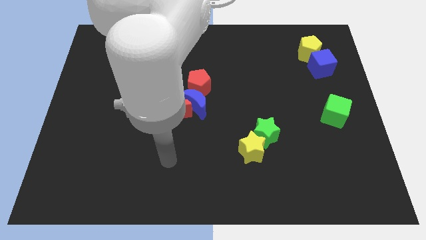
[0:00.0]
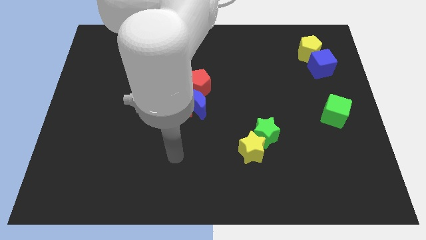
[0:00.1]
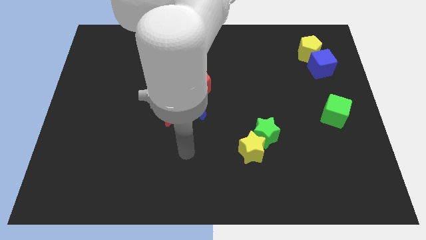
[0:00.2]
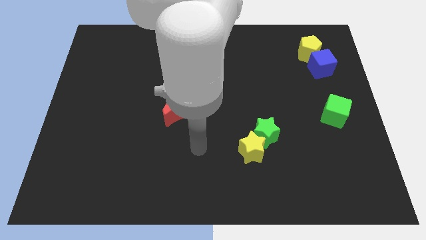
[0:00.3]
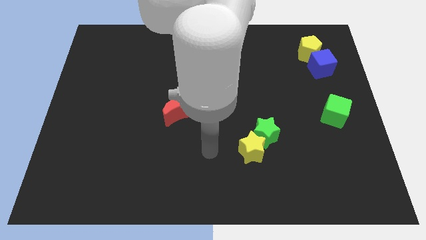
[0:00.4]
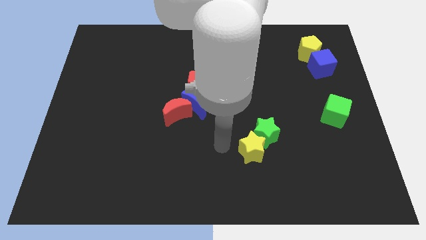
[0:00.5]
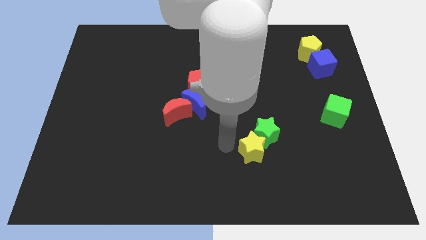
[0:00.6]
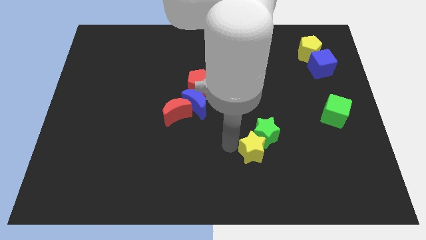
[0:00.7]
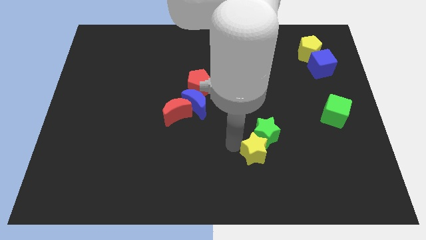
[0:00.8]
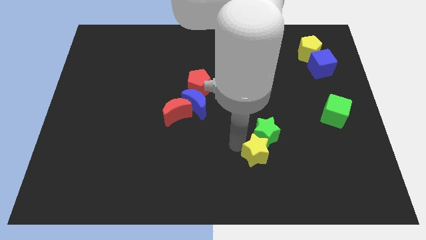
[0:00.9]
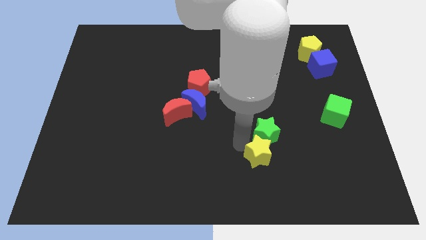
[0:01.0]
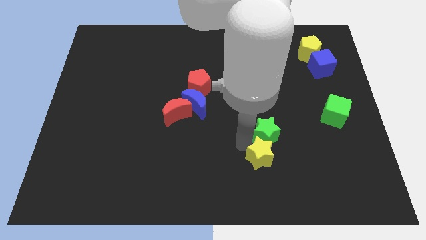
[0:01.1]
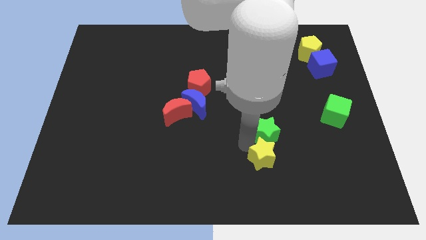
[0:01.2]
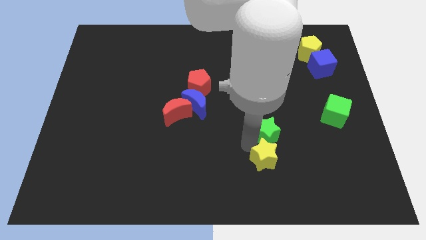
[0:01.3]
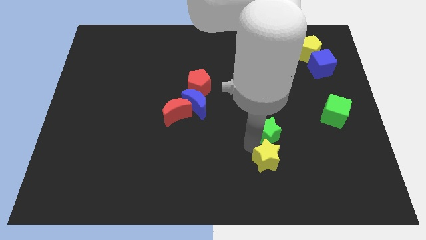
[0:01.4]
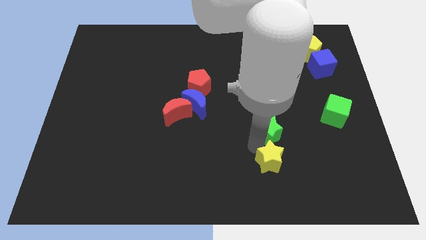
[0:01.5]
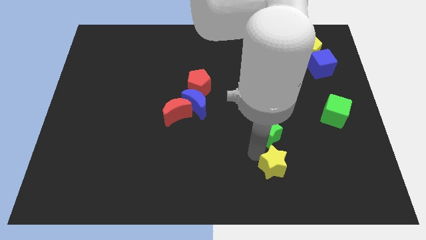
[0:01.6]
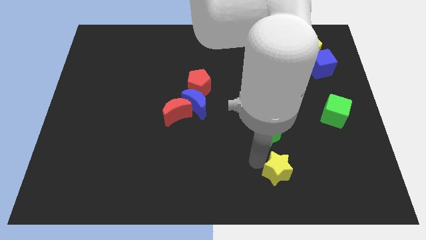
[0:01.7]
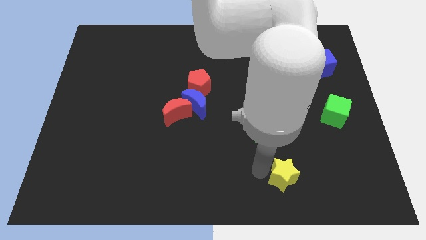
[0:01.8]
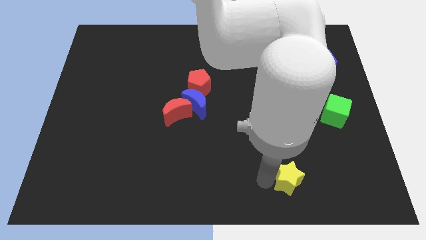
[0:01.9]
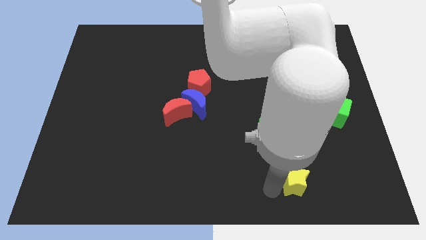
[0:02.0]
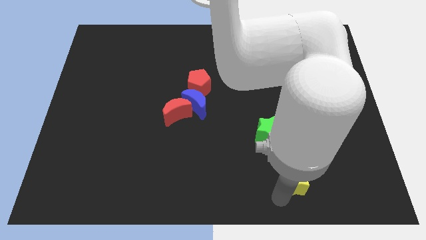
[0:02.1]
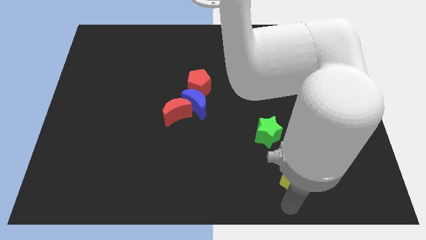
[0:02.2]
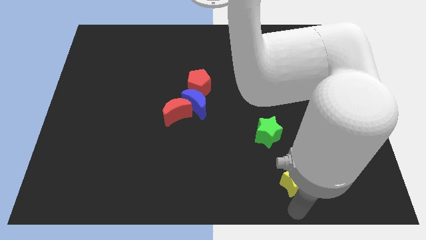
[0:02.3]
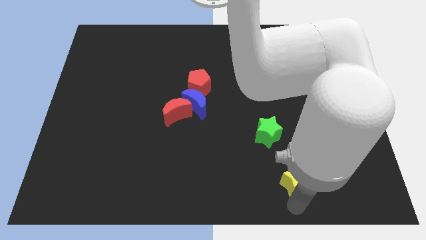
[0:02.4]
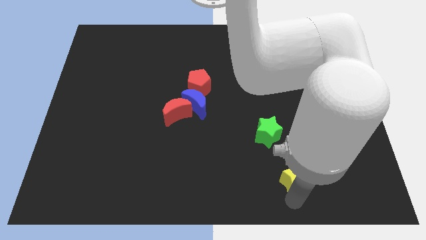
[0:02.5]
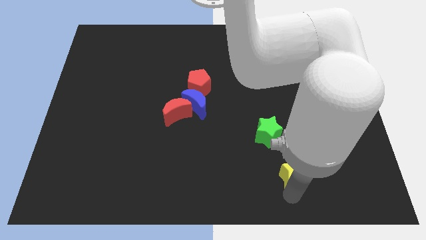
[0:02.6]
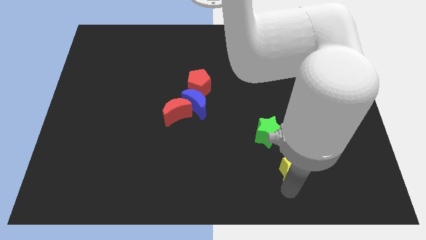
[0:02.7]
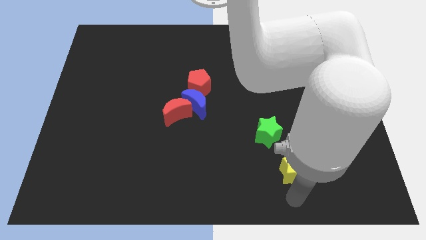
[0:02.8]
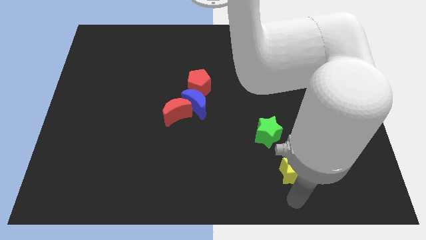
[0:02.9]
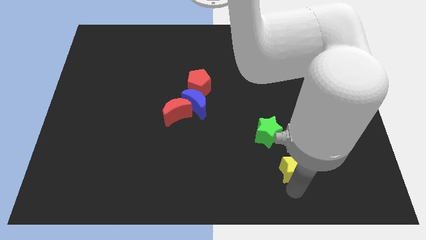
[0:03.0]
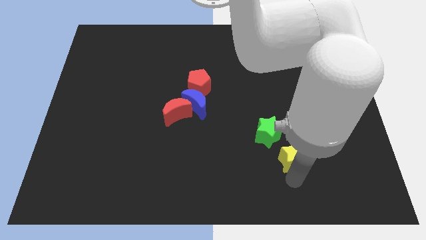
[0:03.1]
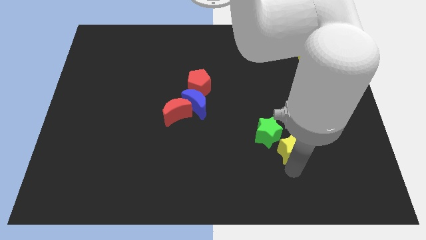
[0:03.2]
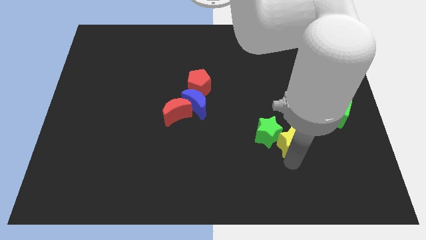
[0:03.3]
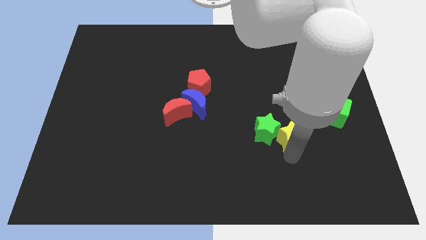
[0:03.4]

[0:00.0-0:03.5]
slightly push the yellow star up and right

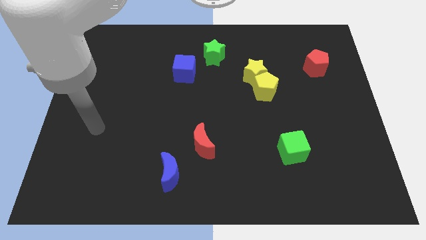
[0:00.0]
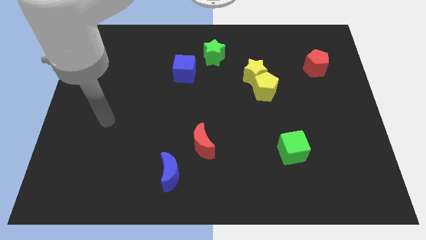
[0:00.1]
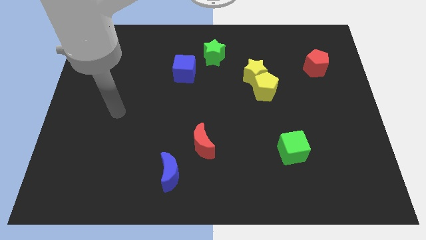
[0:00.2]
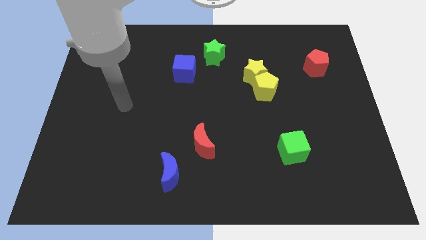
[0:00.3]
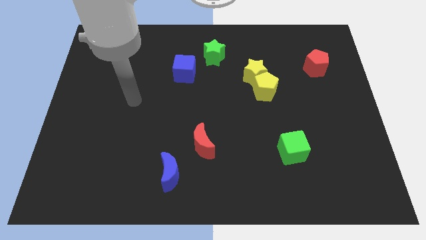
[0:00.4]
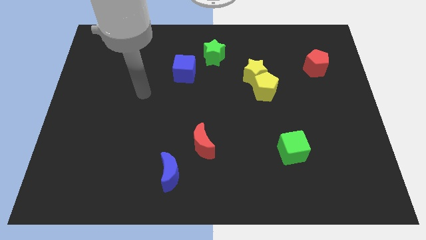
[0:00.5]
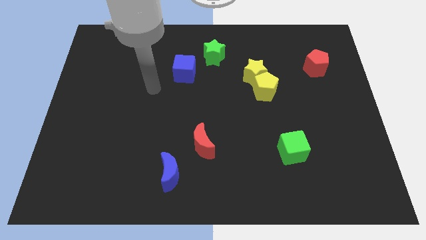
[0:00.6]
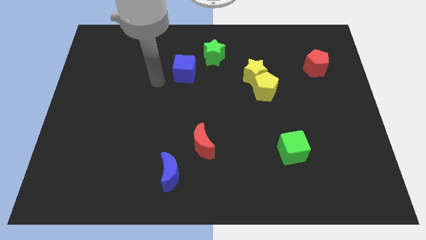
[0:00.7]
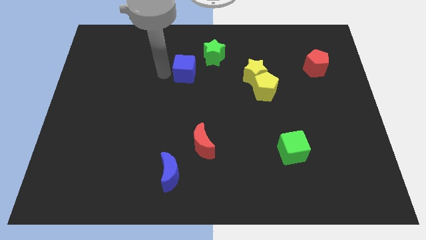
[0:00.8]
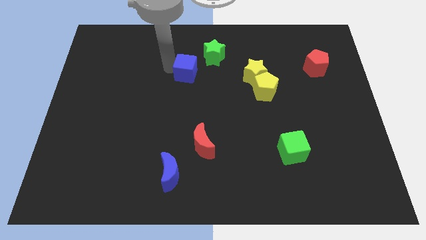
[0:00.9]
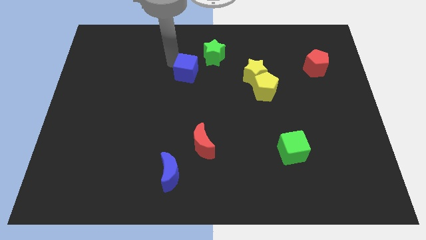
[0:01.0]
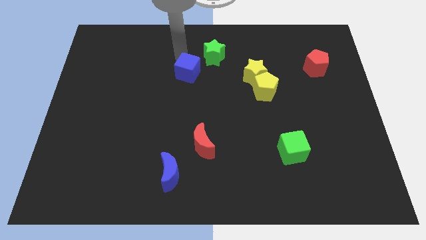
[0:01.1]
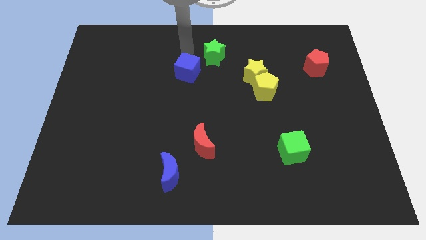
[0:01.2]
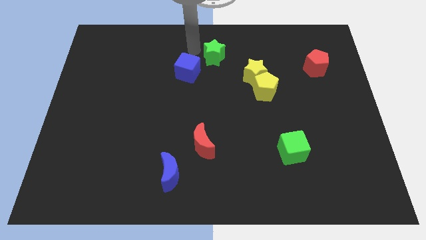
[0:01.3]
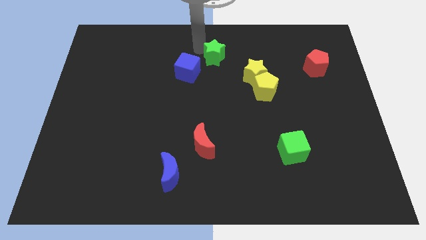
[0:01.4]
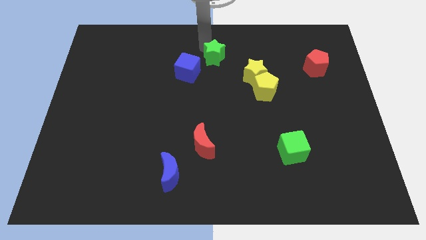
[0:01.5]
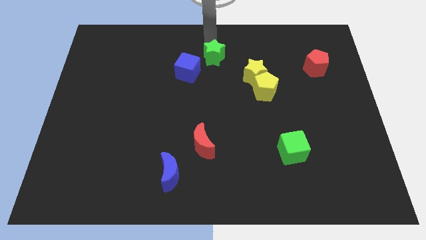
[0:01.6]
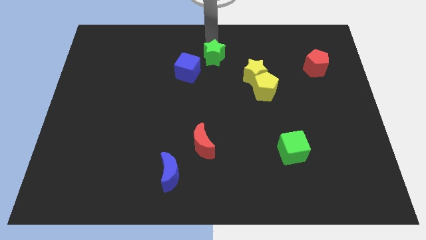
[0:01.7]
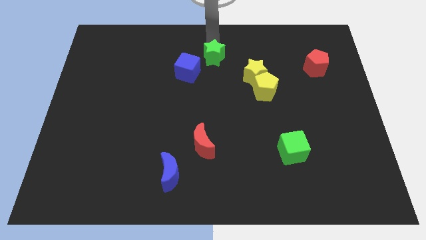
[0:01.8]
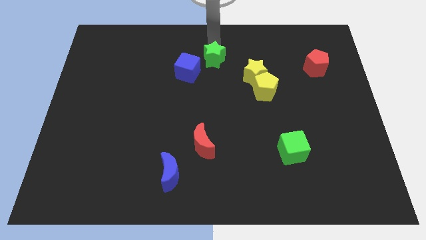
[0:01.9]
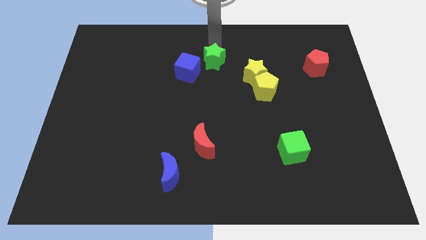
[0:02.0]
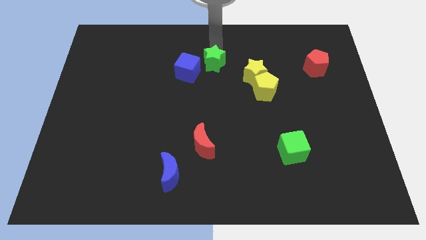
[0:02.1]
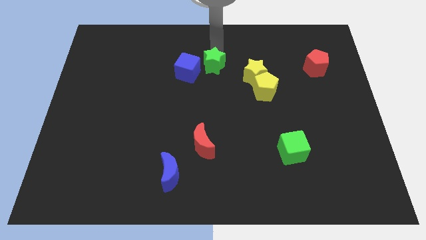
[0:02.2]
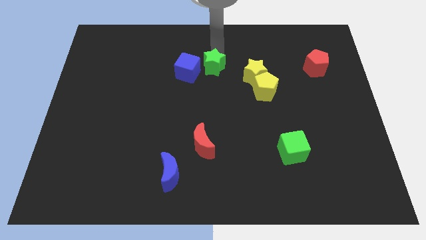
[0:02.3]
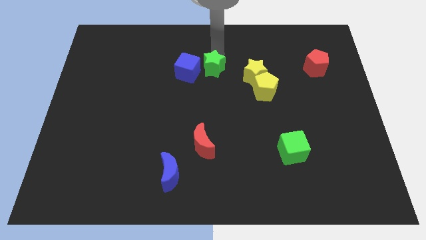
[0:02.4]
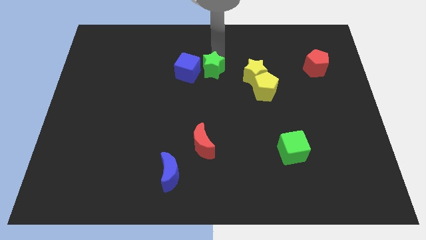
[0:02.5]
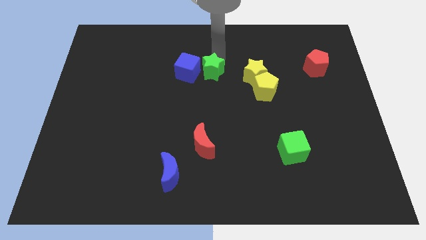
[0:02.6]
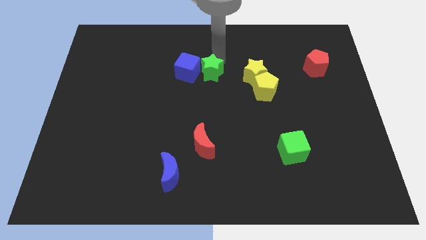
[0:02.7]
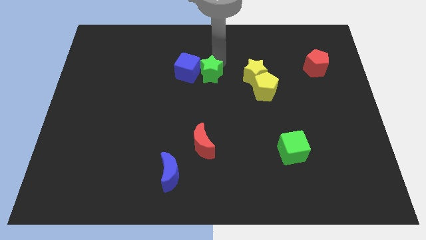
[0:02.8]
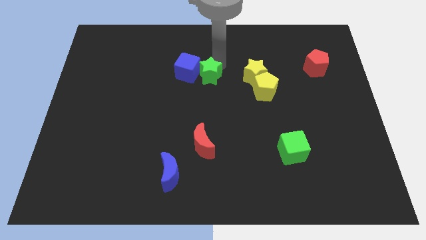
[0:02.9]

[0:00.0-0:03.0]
push the green star downwards a bit

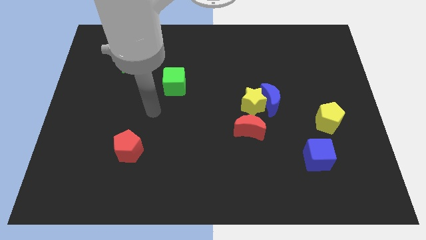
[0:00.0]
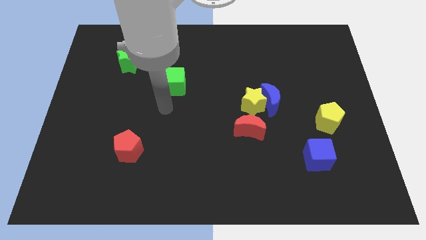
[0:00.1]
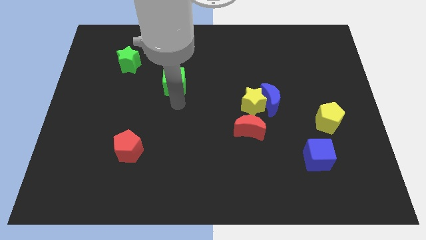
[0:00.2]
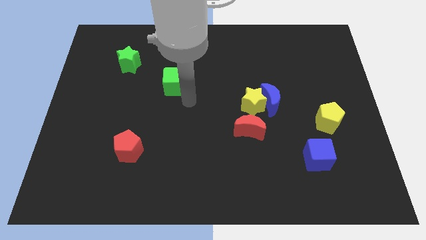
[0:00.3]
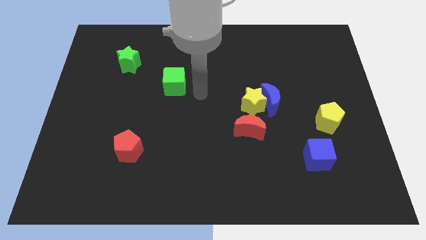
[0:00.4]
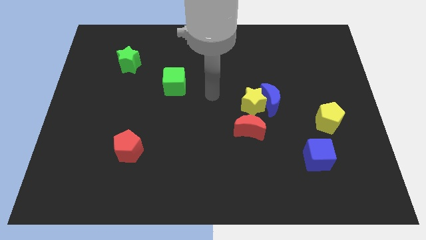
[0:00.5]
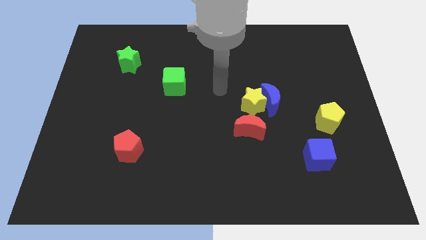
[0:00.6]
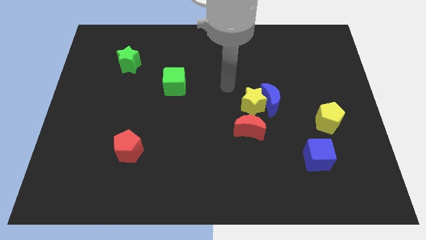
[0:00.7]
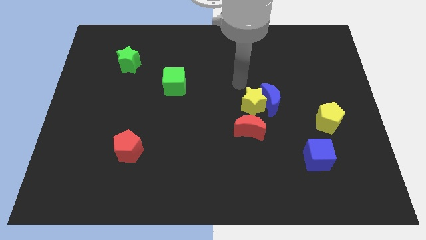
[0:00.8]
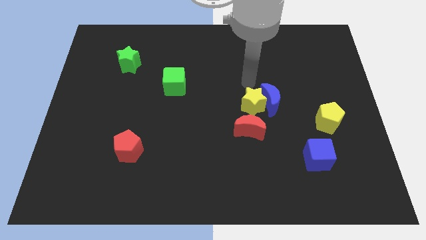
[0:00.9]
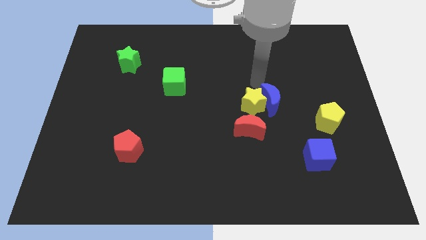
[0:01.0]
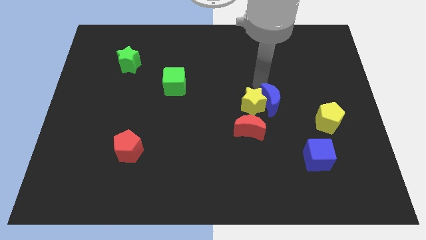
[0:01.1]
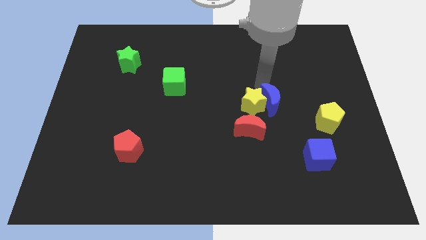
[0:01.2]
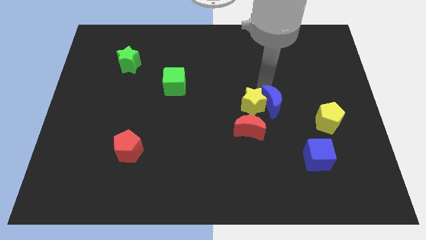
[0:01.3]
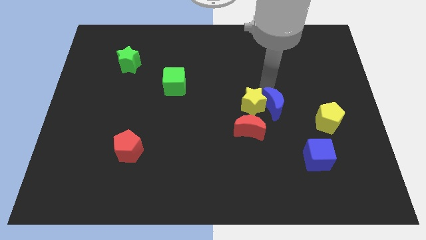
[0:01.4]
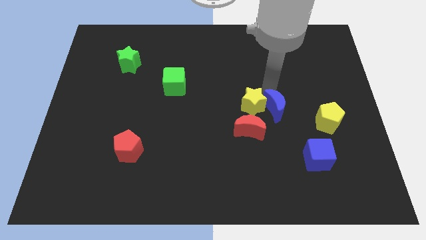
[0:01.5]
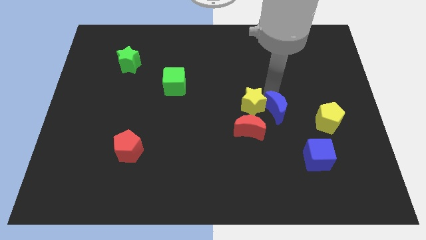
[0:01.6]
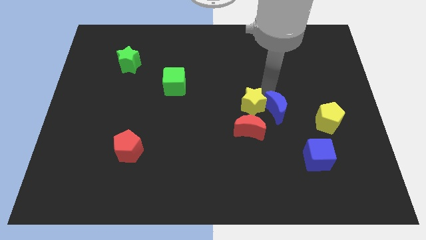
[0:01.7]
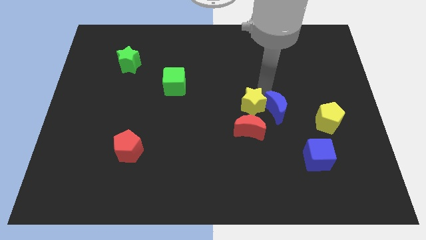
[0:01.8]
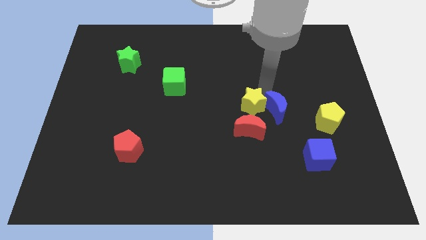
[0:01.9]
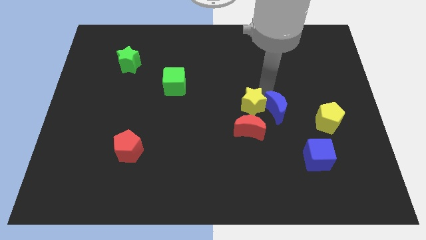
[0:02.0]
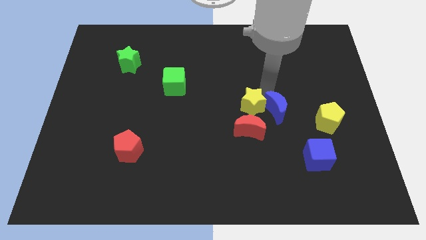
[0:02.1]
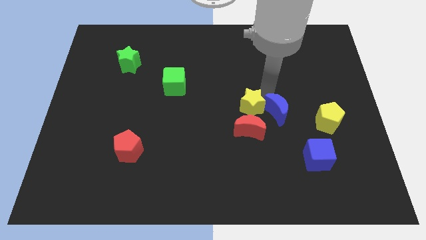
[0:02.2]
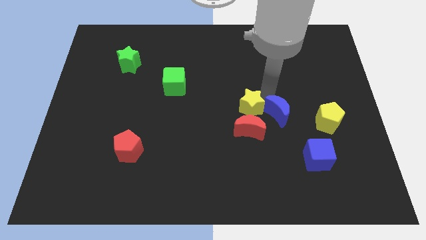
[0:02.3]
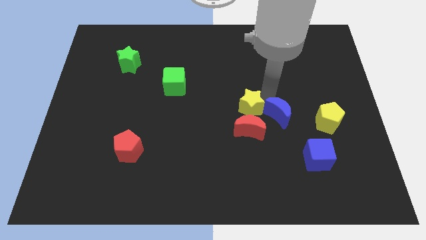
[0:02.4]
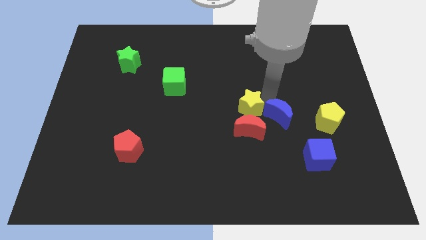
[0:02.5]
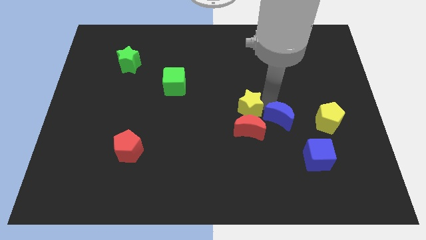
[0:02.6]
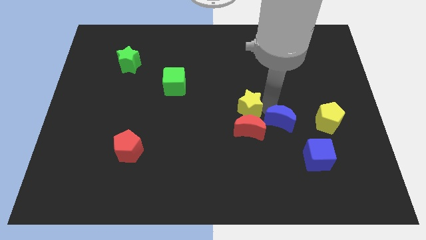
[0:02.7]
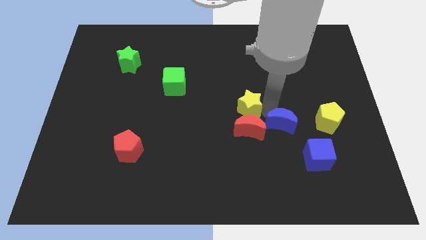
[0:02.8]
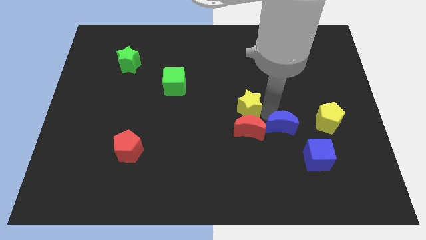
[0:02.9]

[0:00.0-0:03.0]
move the blue moon downwards a bit
